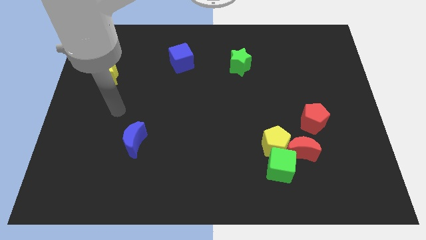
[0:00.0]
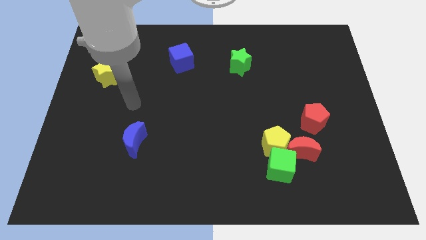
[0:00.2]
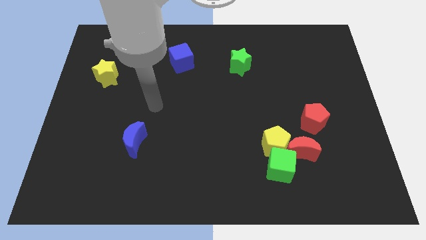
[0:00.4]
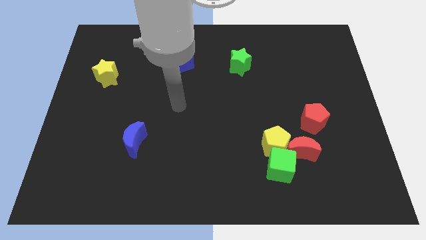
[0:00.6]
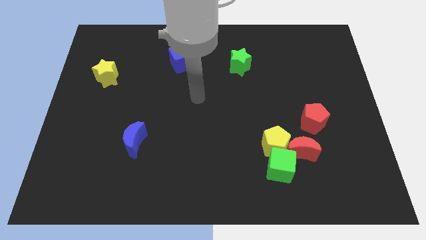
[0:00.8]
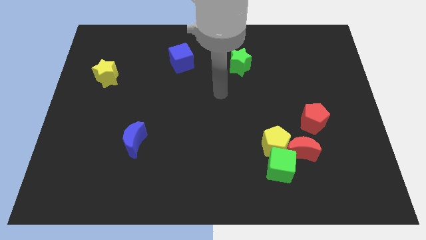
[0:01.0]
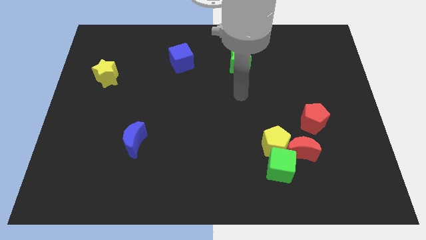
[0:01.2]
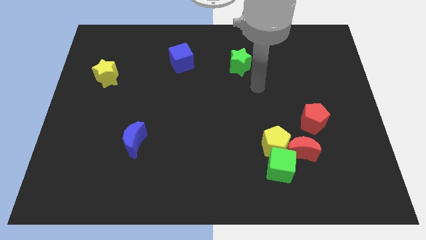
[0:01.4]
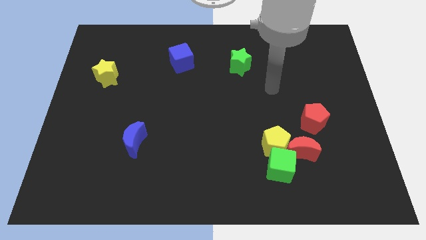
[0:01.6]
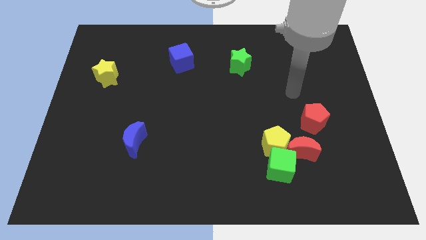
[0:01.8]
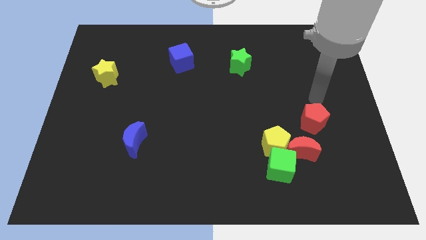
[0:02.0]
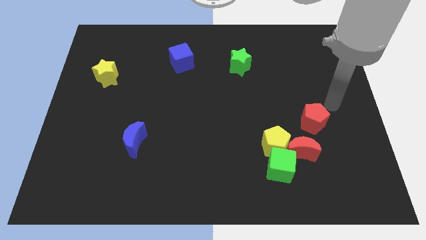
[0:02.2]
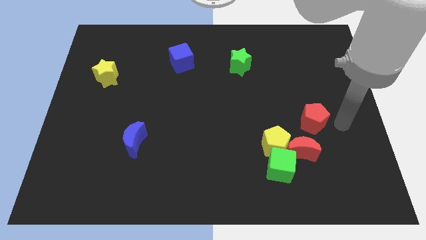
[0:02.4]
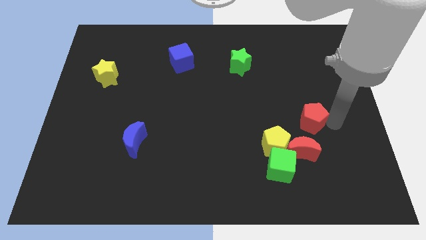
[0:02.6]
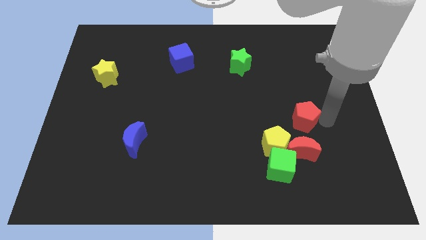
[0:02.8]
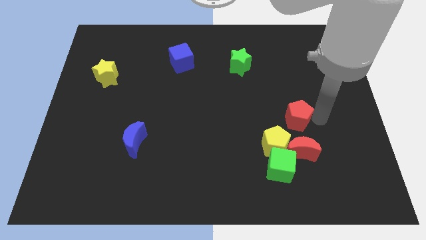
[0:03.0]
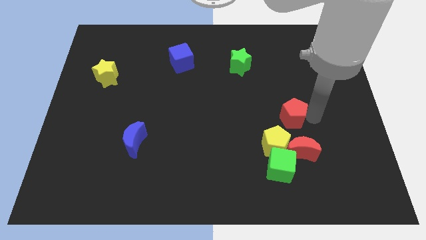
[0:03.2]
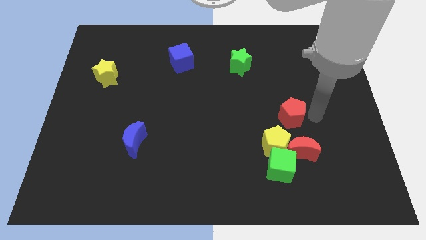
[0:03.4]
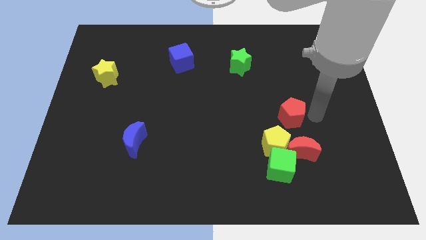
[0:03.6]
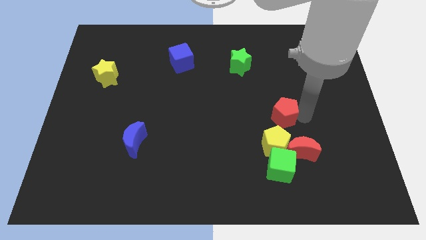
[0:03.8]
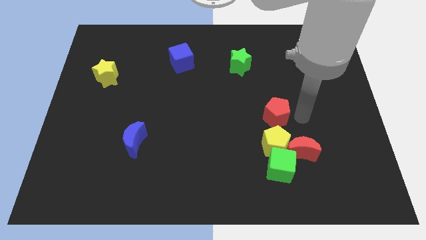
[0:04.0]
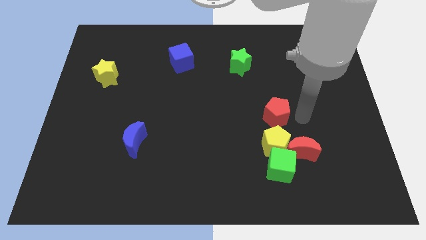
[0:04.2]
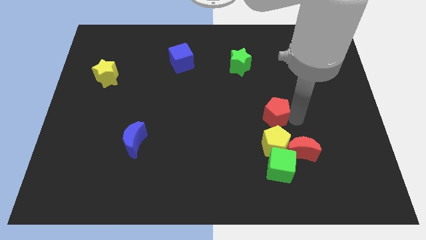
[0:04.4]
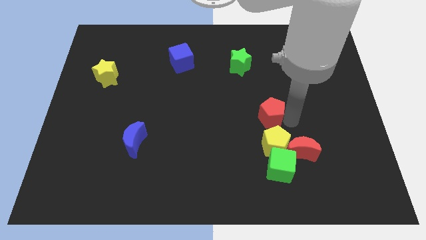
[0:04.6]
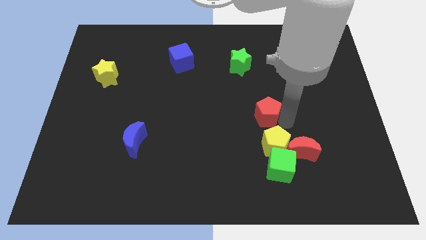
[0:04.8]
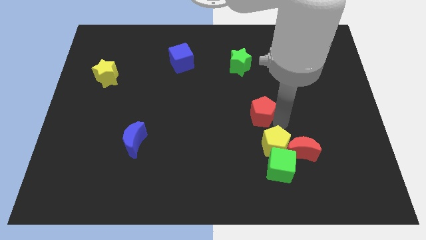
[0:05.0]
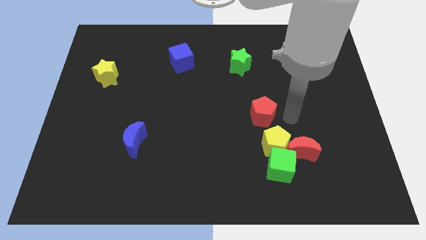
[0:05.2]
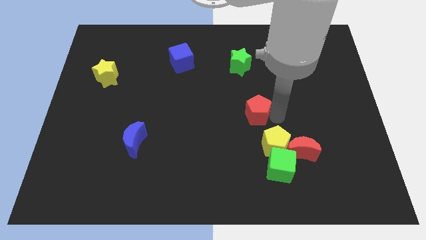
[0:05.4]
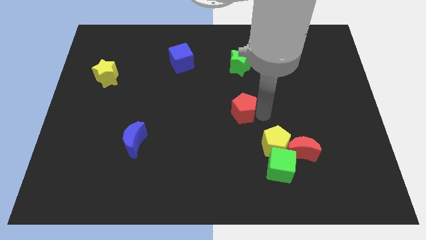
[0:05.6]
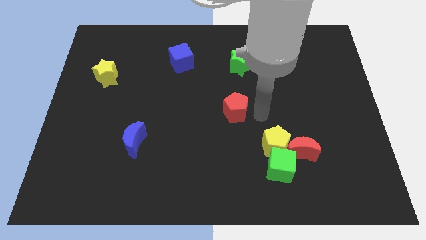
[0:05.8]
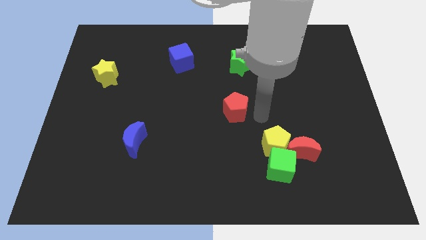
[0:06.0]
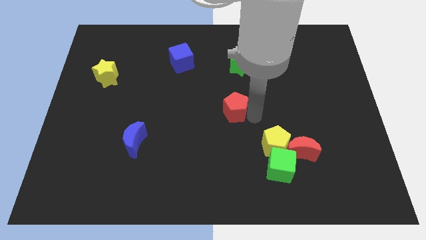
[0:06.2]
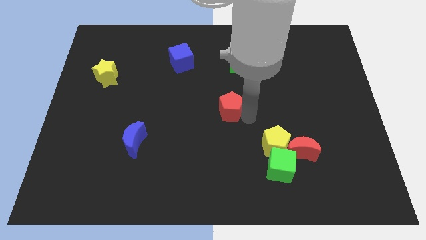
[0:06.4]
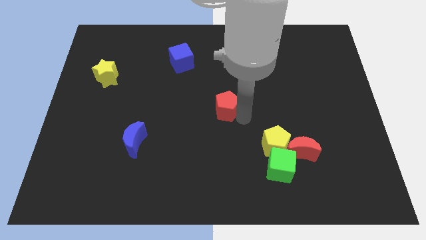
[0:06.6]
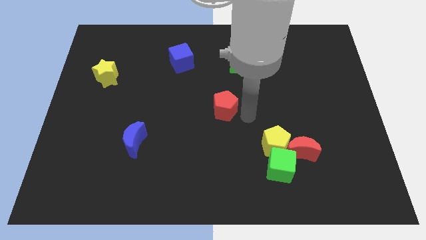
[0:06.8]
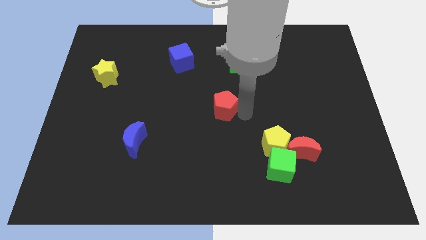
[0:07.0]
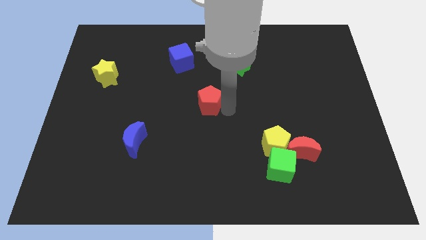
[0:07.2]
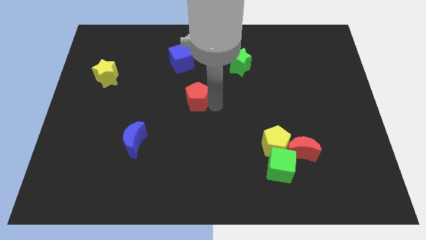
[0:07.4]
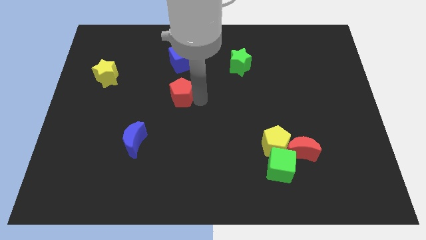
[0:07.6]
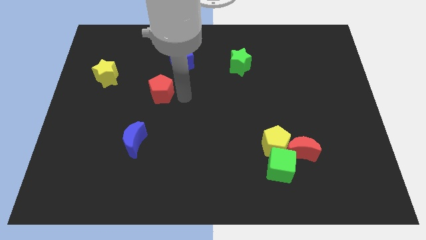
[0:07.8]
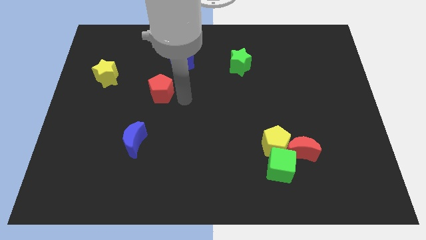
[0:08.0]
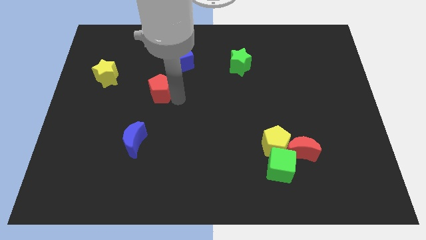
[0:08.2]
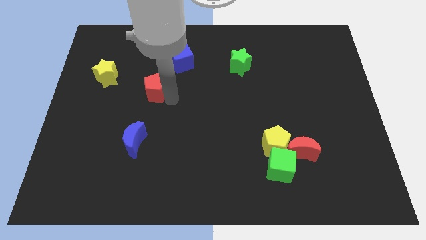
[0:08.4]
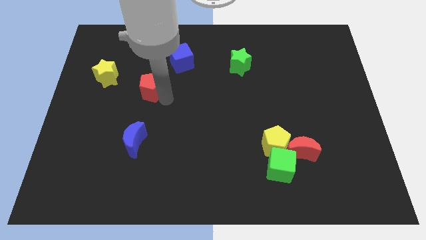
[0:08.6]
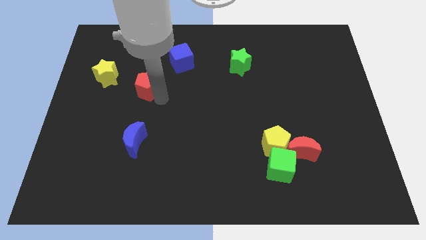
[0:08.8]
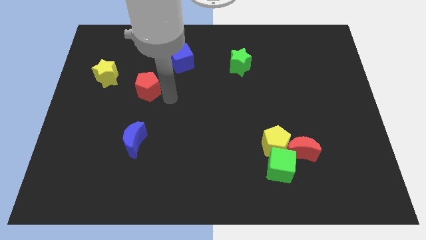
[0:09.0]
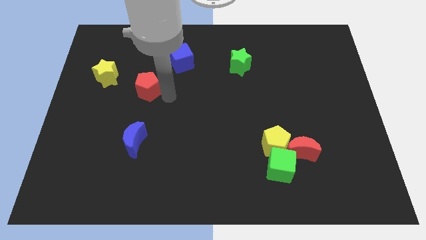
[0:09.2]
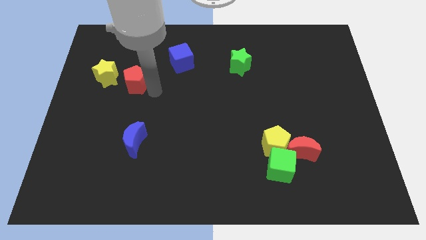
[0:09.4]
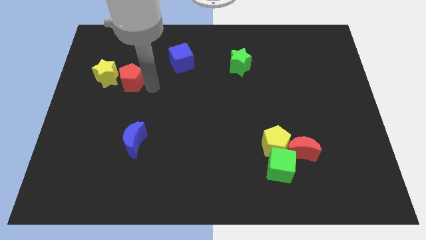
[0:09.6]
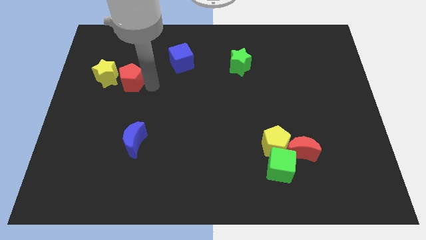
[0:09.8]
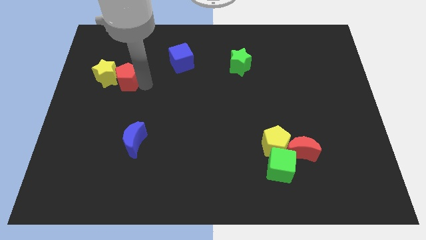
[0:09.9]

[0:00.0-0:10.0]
put the red pentagon close to the yellow star

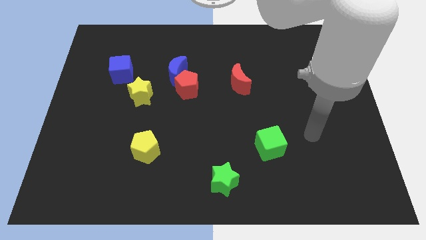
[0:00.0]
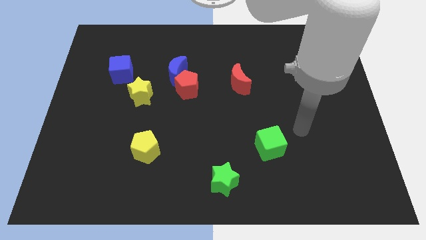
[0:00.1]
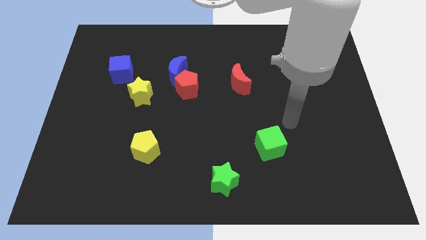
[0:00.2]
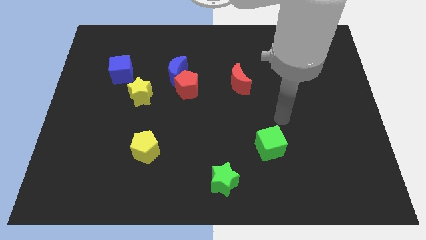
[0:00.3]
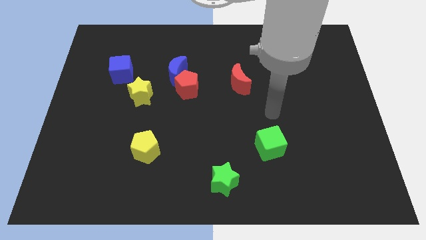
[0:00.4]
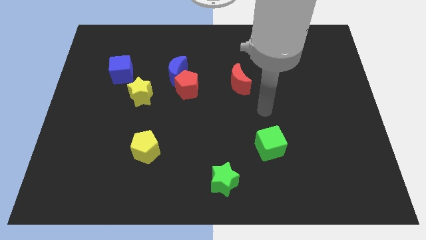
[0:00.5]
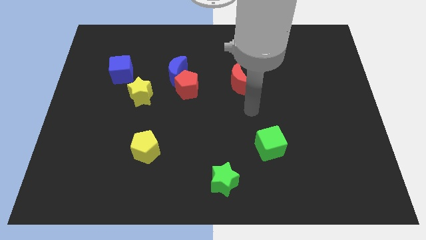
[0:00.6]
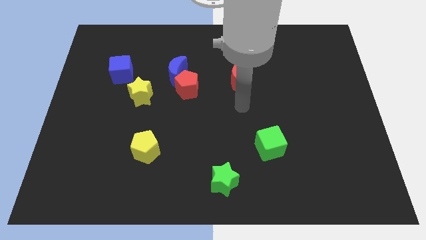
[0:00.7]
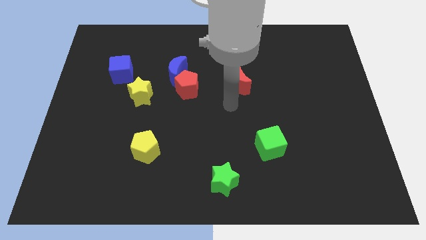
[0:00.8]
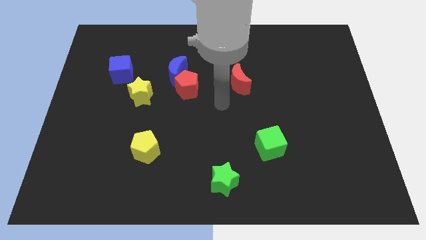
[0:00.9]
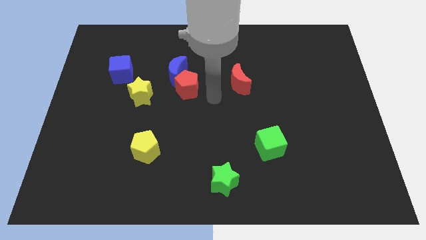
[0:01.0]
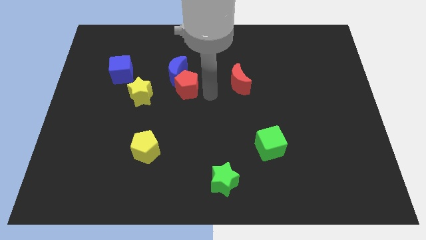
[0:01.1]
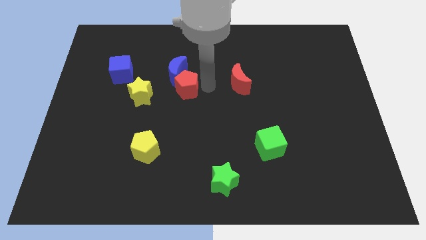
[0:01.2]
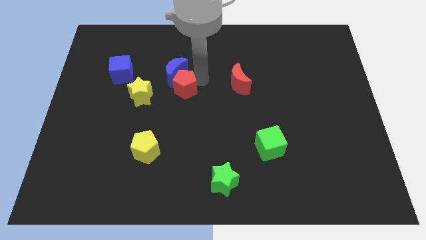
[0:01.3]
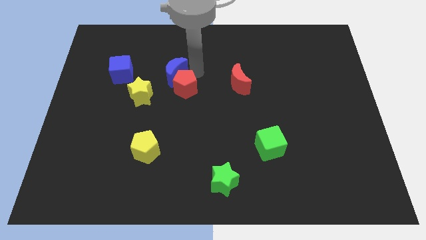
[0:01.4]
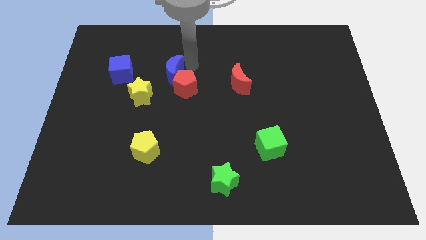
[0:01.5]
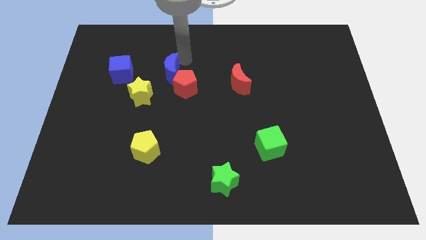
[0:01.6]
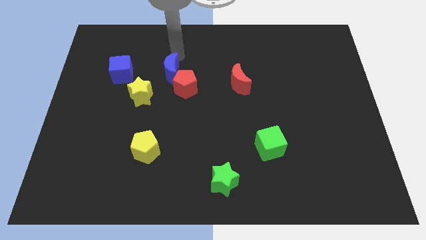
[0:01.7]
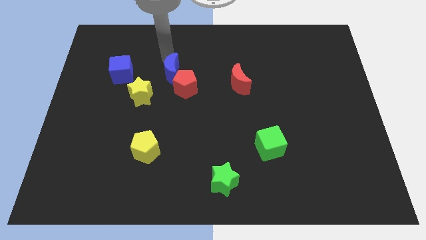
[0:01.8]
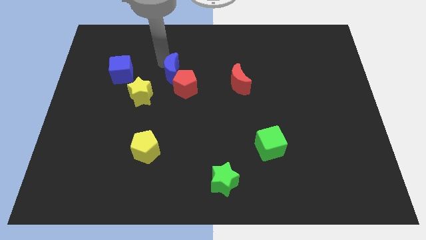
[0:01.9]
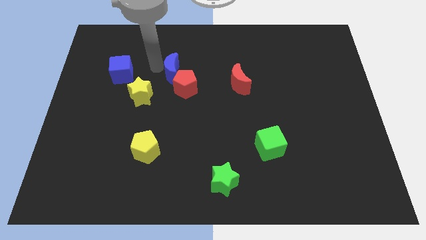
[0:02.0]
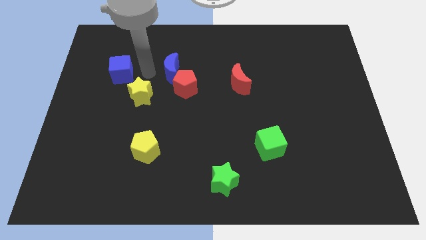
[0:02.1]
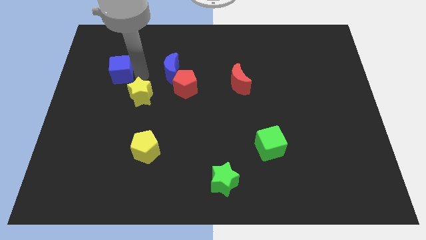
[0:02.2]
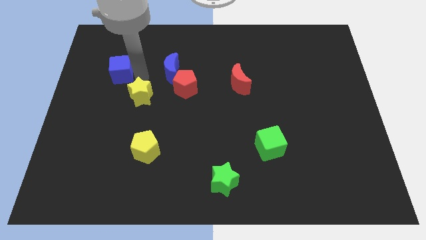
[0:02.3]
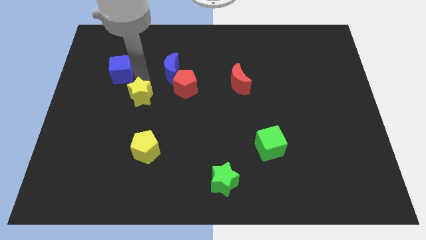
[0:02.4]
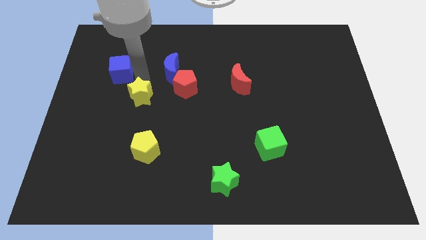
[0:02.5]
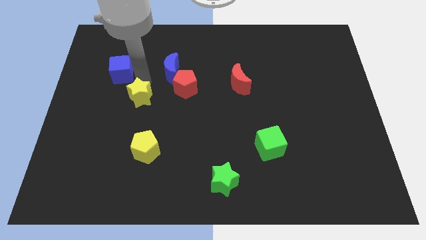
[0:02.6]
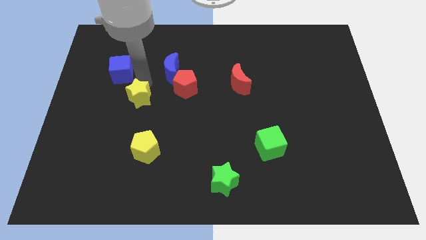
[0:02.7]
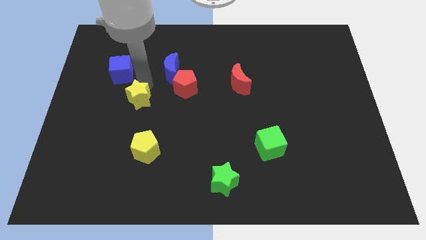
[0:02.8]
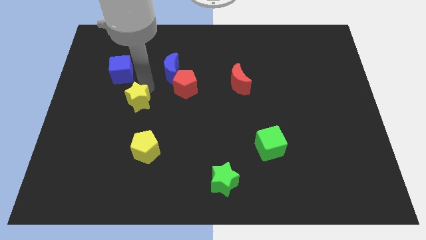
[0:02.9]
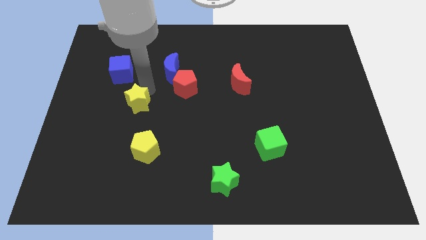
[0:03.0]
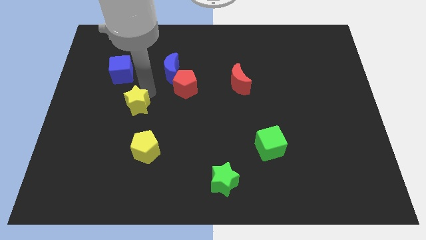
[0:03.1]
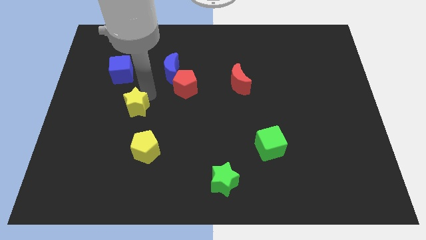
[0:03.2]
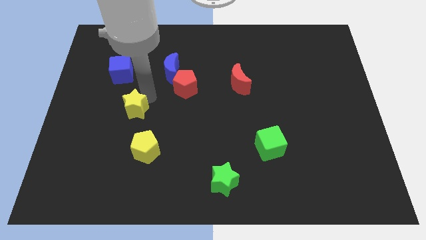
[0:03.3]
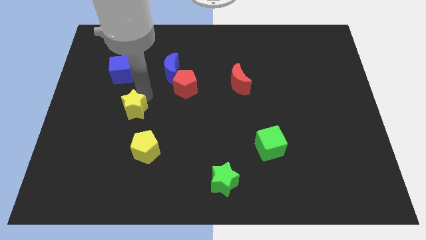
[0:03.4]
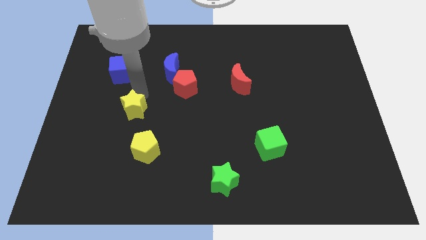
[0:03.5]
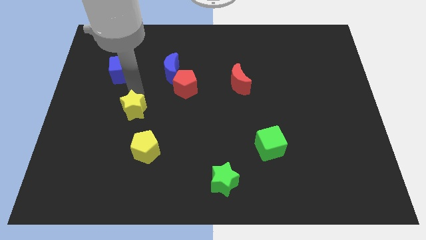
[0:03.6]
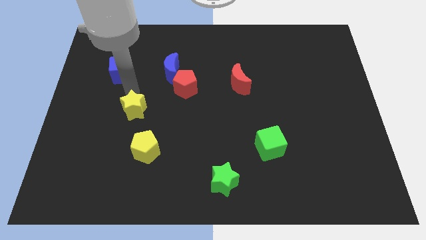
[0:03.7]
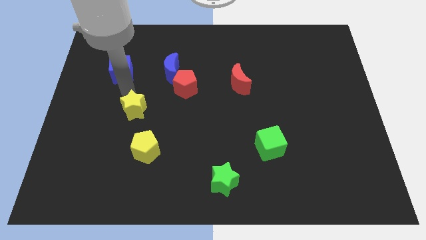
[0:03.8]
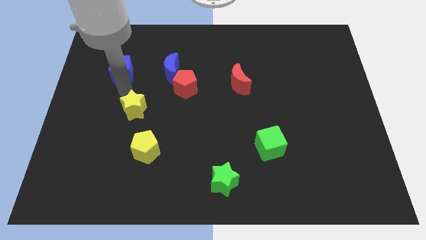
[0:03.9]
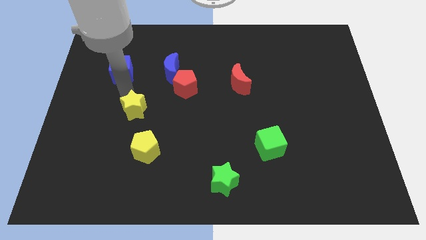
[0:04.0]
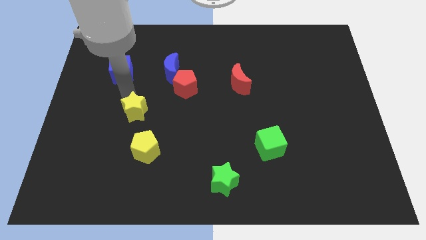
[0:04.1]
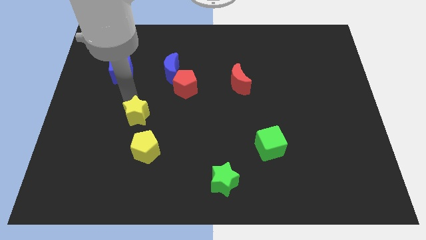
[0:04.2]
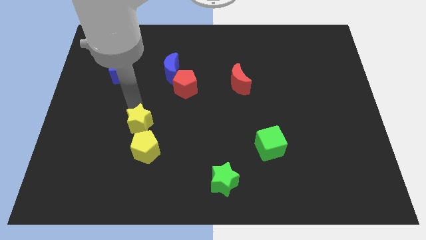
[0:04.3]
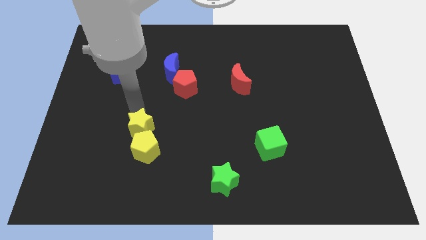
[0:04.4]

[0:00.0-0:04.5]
push the yellow star towards the yellow pentagon
